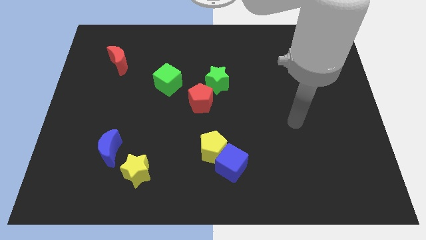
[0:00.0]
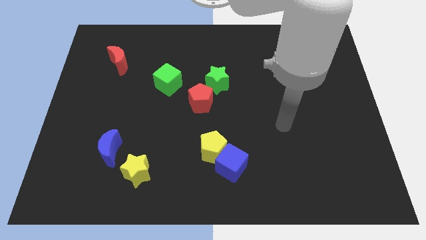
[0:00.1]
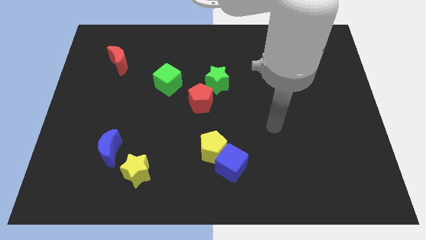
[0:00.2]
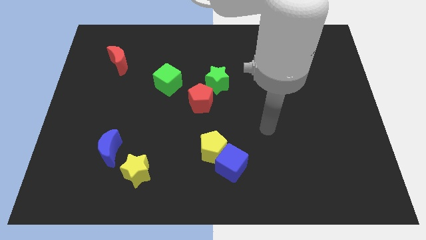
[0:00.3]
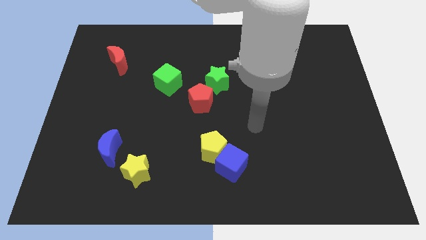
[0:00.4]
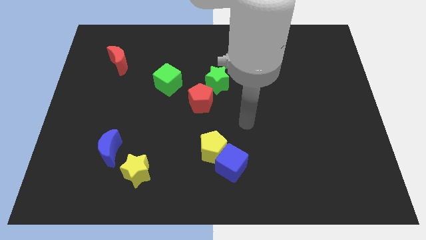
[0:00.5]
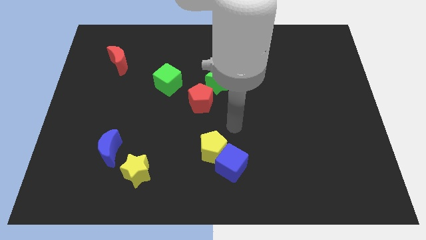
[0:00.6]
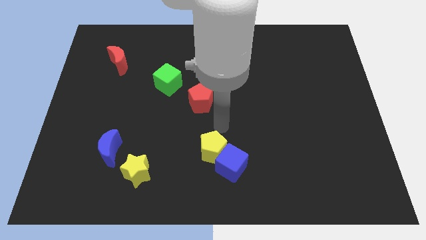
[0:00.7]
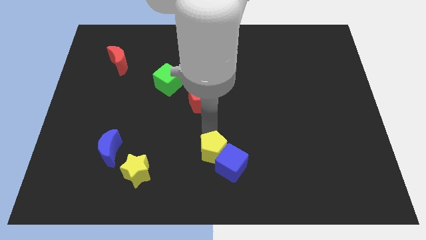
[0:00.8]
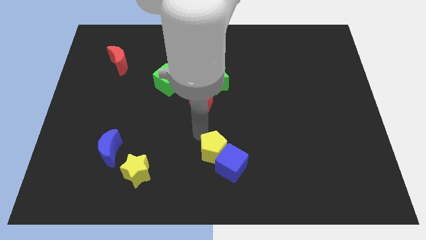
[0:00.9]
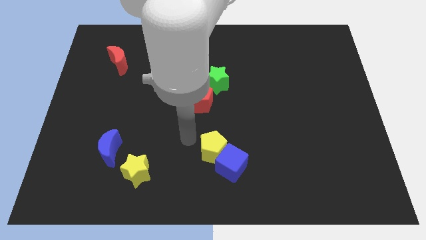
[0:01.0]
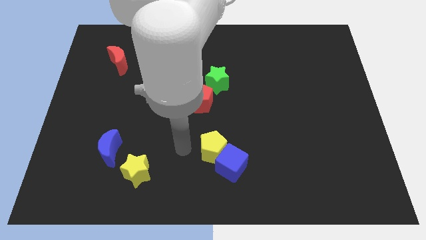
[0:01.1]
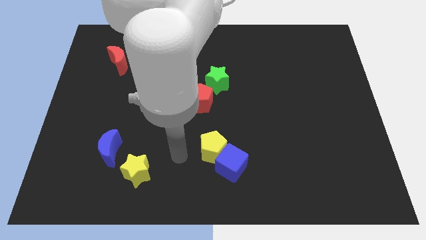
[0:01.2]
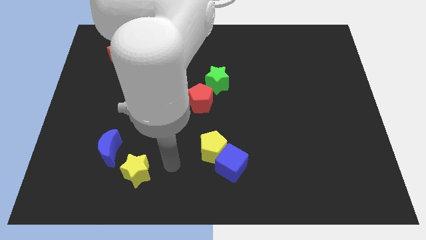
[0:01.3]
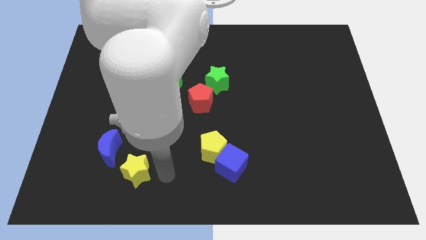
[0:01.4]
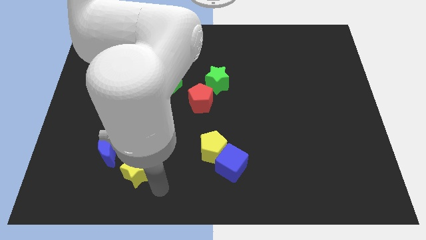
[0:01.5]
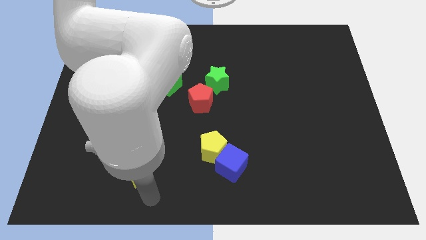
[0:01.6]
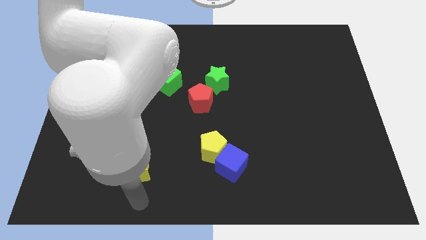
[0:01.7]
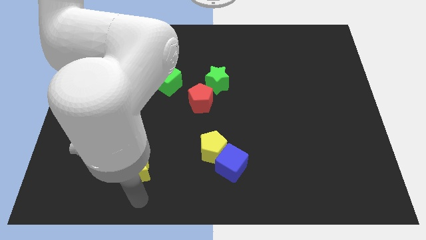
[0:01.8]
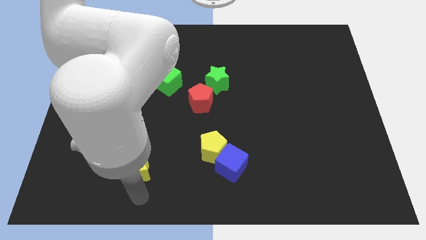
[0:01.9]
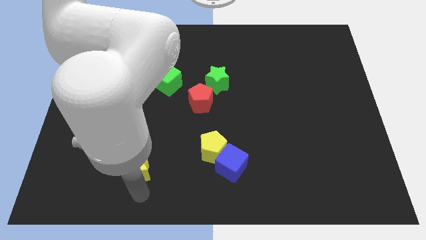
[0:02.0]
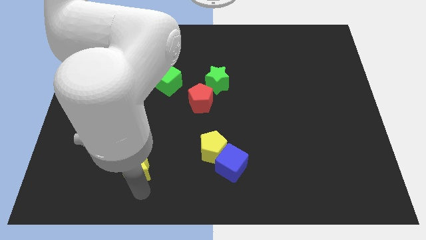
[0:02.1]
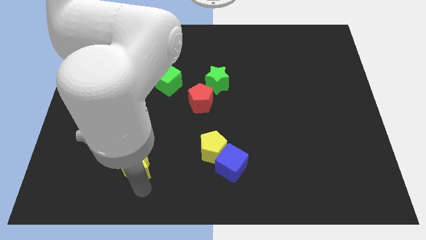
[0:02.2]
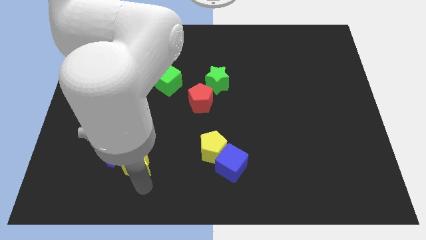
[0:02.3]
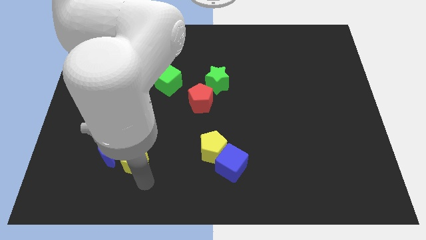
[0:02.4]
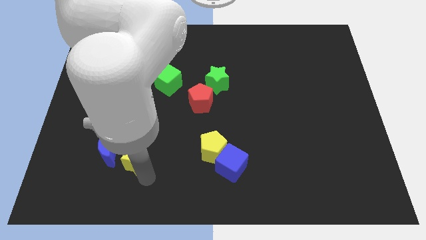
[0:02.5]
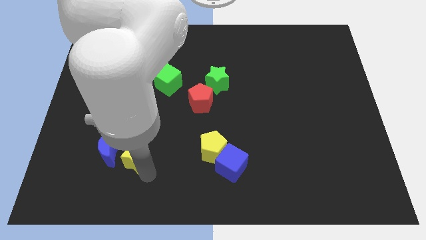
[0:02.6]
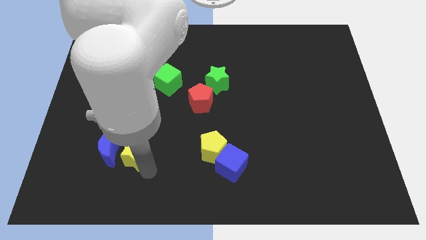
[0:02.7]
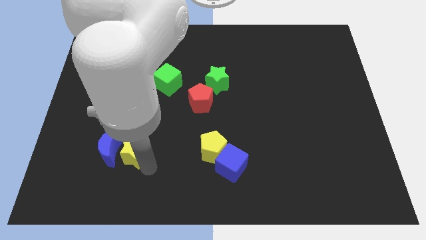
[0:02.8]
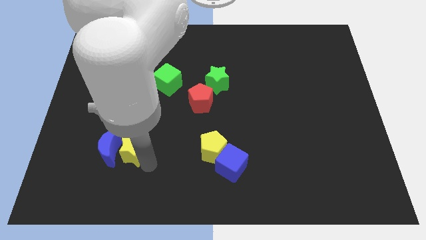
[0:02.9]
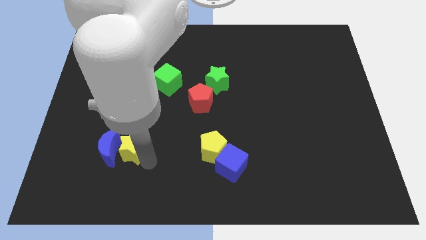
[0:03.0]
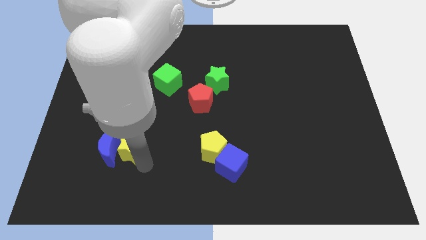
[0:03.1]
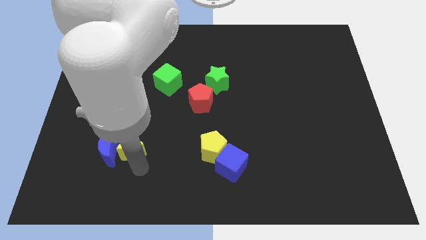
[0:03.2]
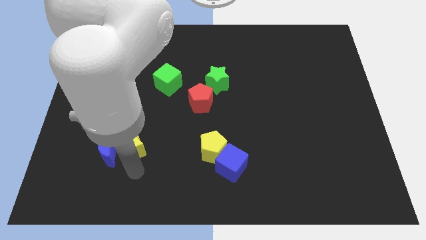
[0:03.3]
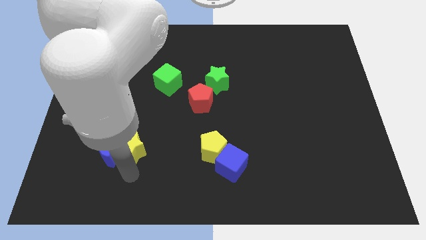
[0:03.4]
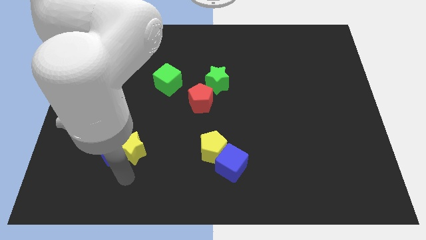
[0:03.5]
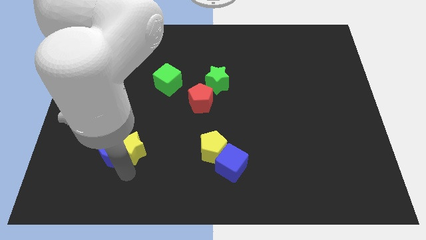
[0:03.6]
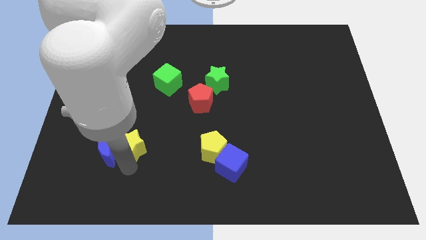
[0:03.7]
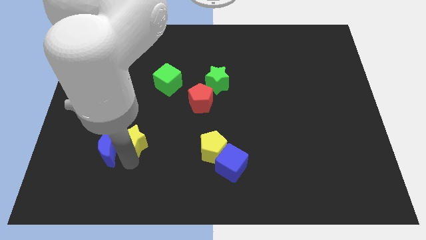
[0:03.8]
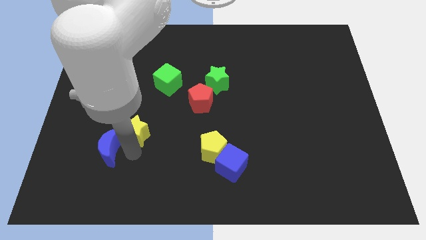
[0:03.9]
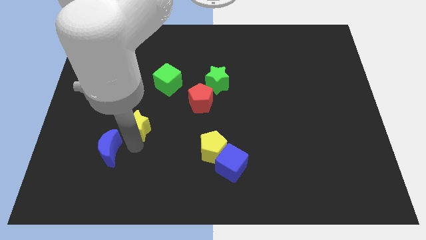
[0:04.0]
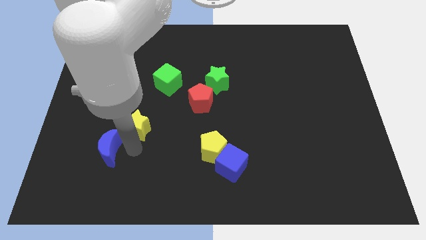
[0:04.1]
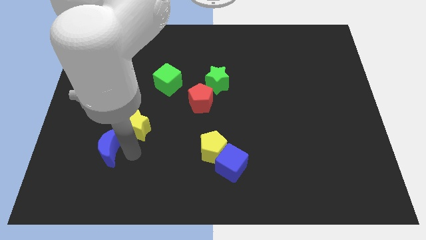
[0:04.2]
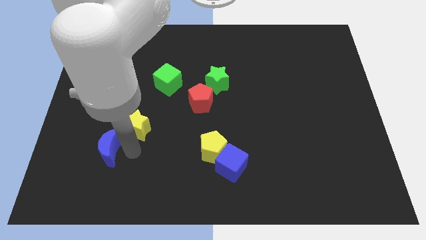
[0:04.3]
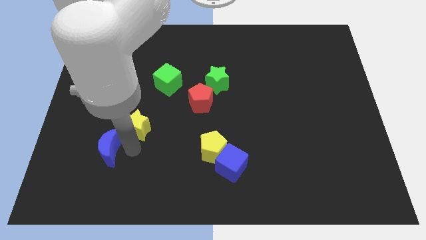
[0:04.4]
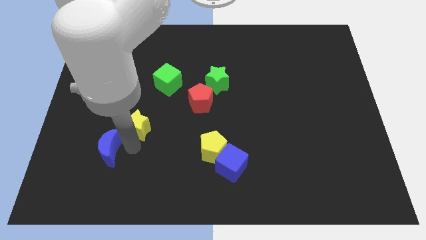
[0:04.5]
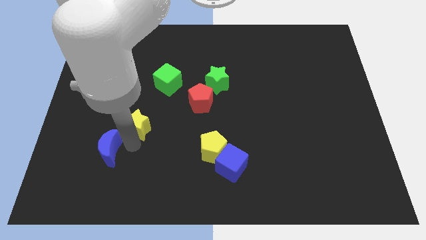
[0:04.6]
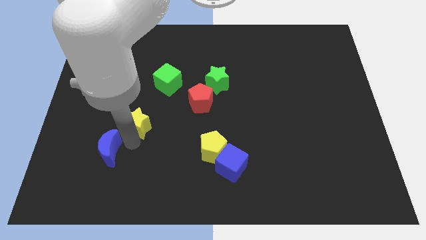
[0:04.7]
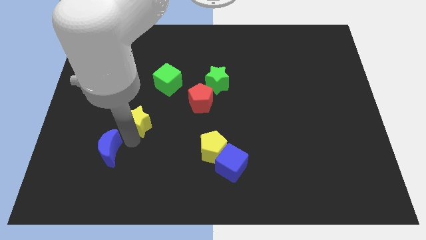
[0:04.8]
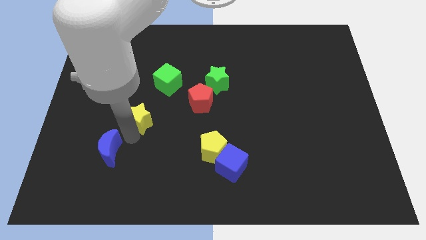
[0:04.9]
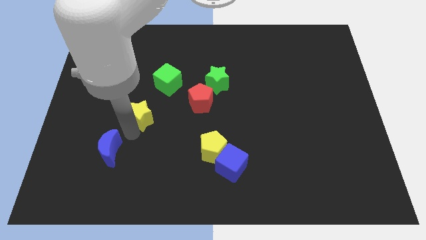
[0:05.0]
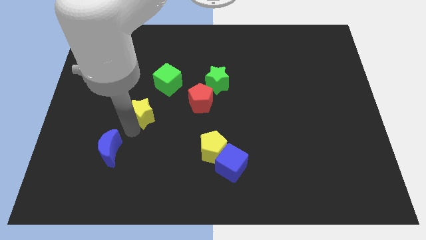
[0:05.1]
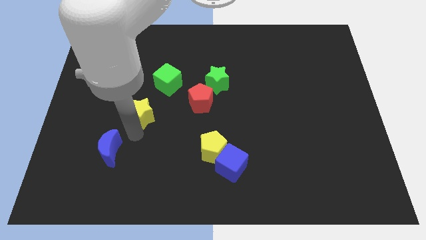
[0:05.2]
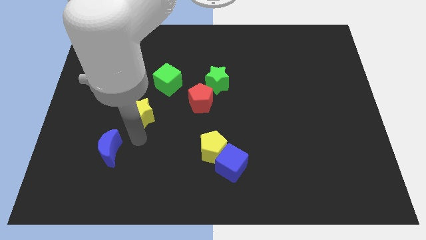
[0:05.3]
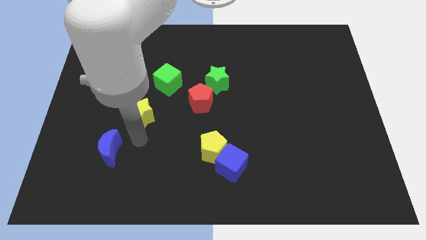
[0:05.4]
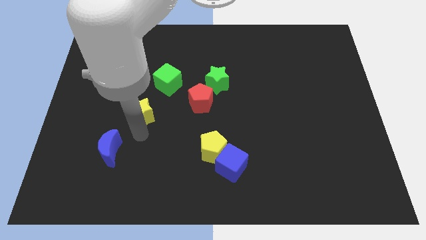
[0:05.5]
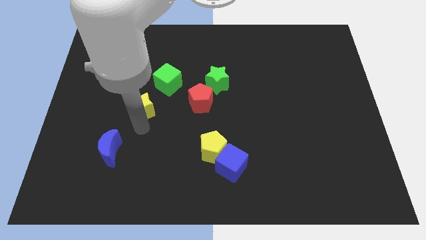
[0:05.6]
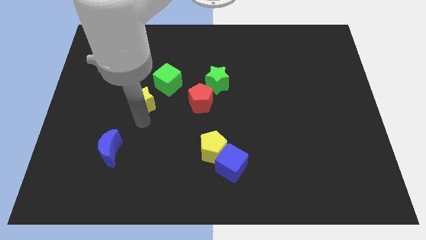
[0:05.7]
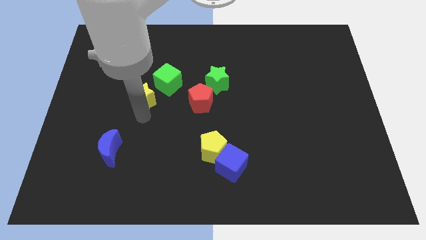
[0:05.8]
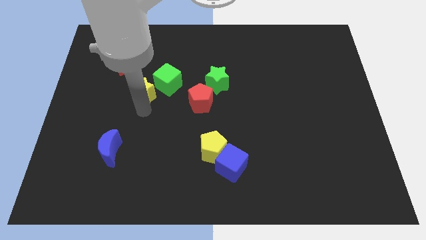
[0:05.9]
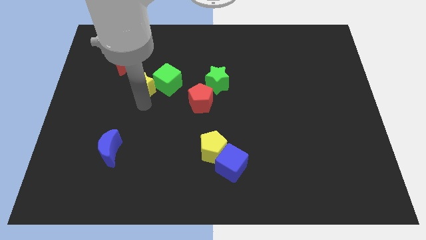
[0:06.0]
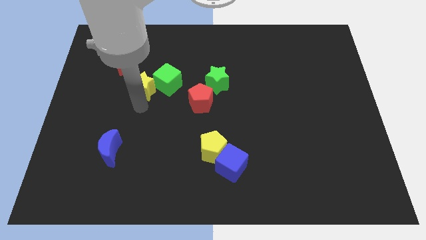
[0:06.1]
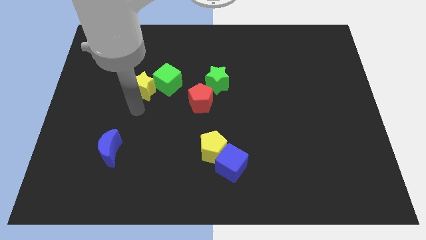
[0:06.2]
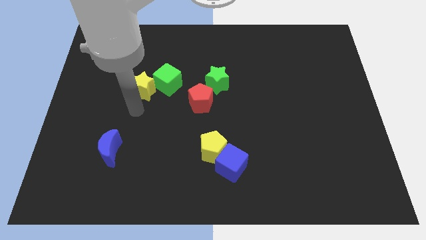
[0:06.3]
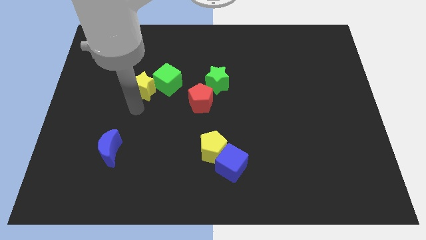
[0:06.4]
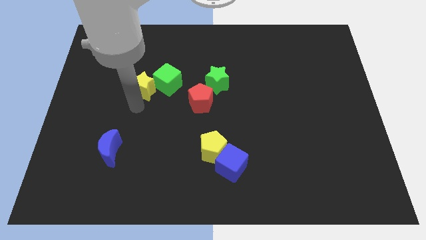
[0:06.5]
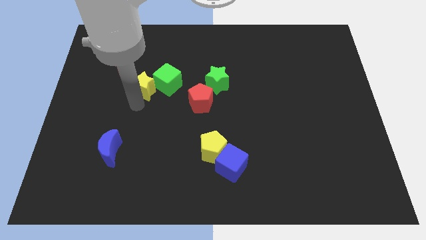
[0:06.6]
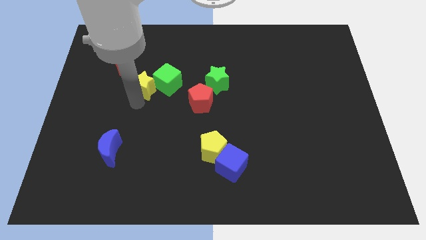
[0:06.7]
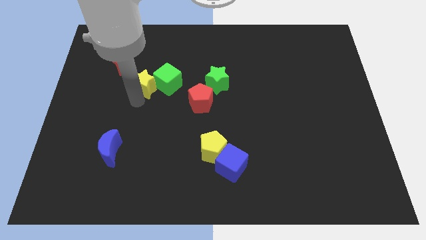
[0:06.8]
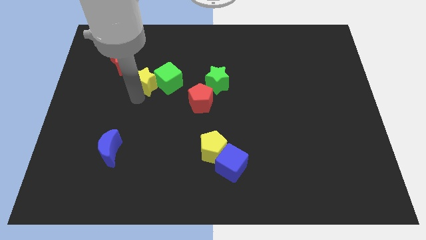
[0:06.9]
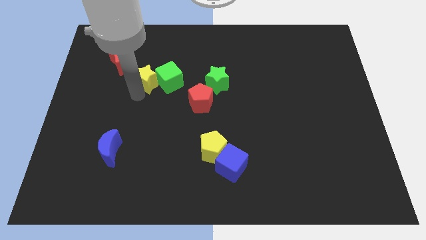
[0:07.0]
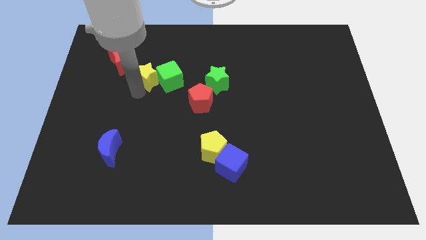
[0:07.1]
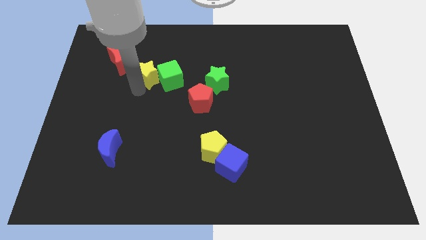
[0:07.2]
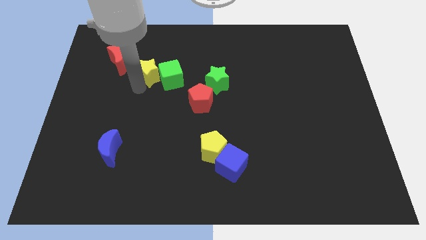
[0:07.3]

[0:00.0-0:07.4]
push the yellow star right of the red moon

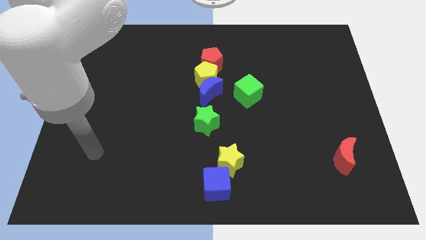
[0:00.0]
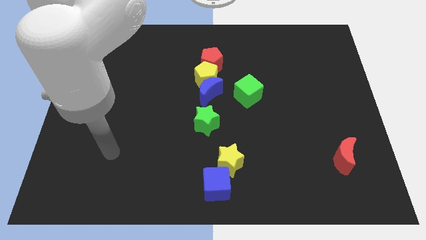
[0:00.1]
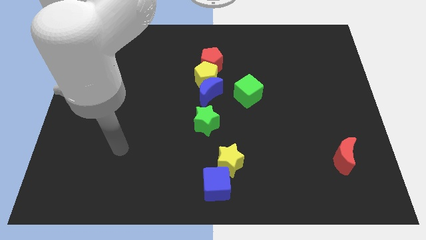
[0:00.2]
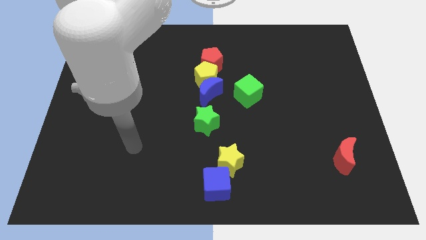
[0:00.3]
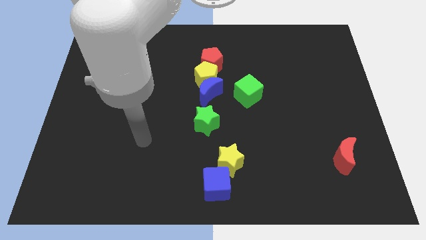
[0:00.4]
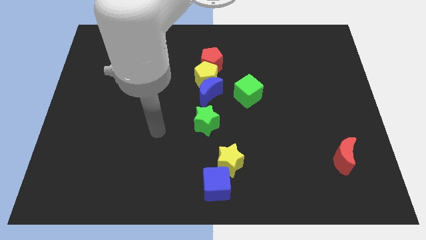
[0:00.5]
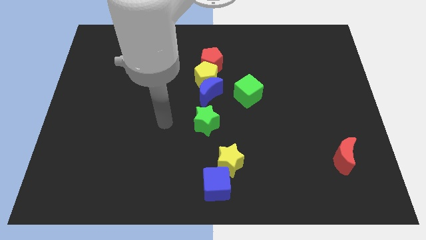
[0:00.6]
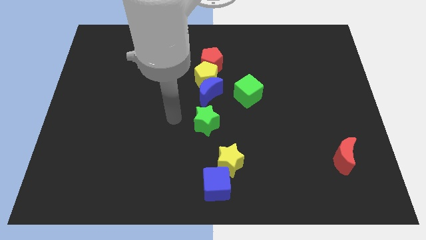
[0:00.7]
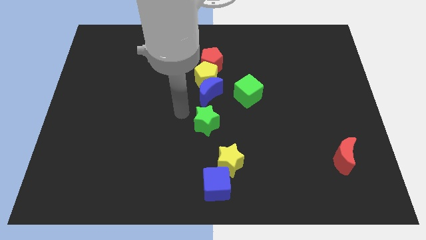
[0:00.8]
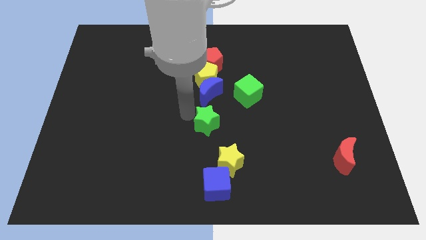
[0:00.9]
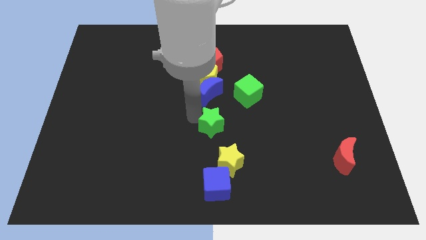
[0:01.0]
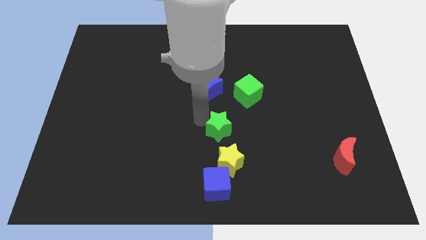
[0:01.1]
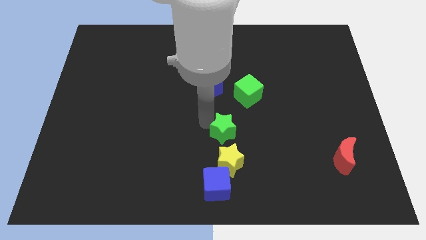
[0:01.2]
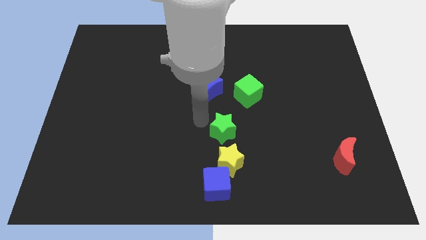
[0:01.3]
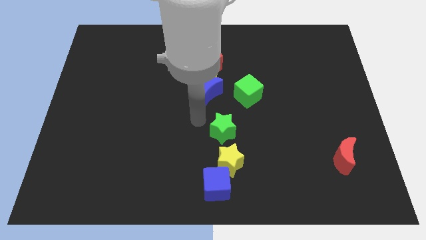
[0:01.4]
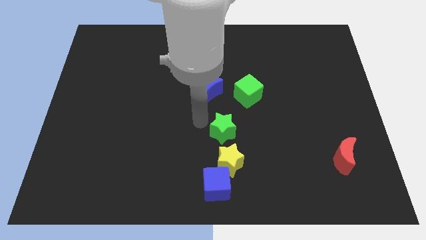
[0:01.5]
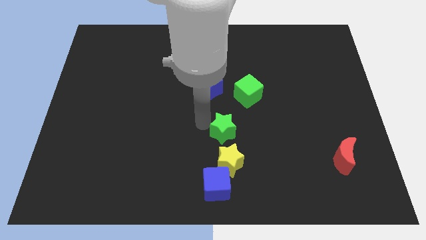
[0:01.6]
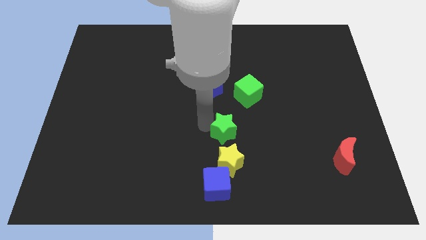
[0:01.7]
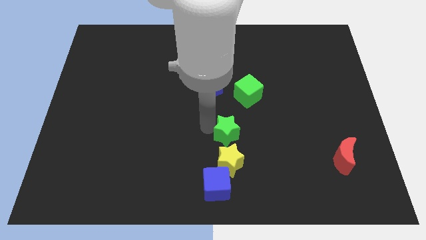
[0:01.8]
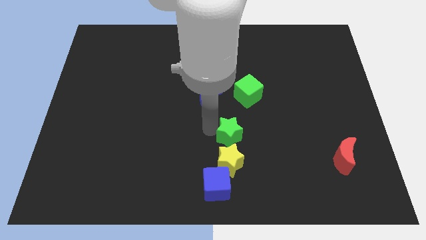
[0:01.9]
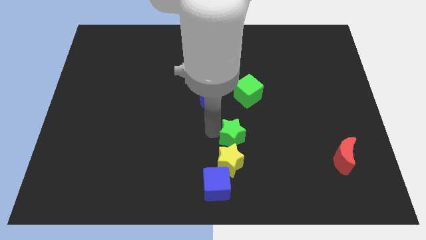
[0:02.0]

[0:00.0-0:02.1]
move the green star diagonally up and to the right of the yellow star
